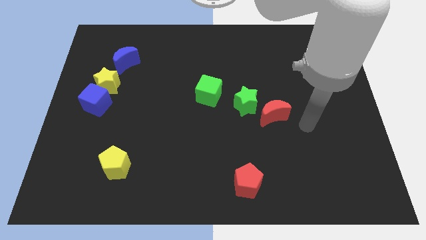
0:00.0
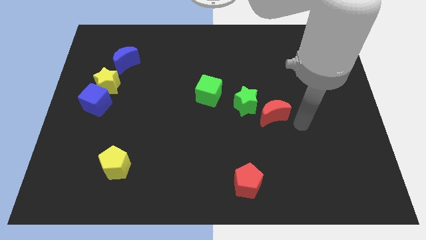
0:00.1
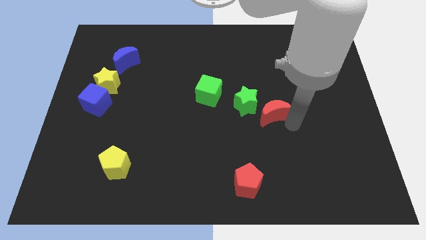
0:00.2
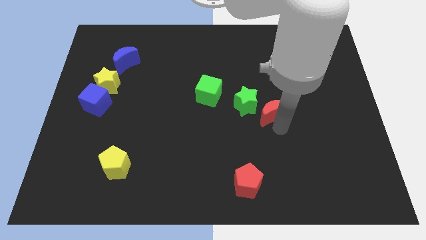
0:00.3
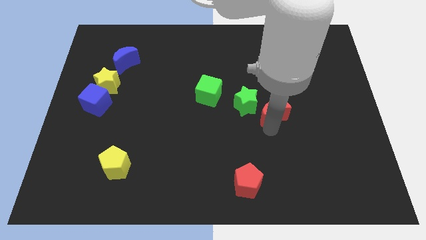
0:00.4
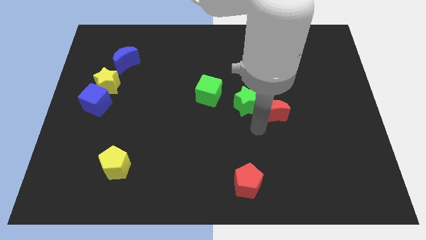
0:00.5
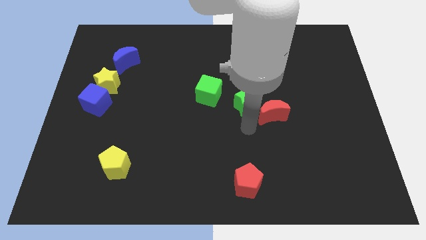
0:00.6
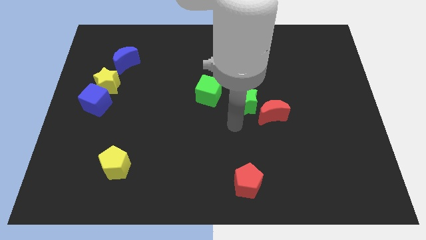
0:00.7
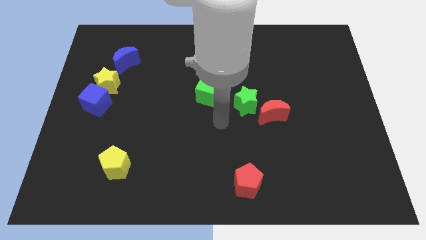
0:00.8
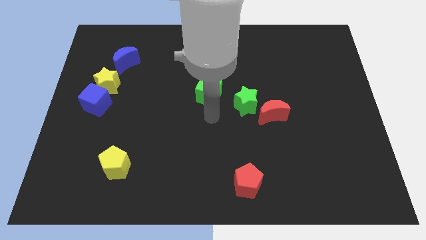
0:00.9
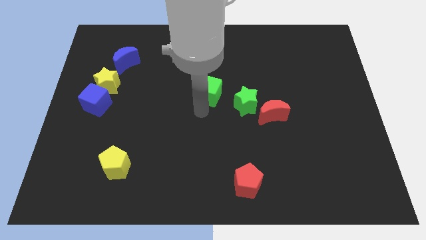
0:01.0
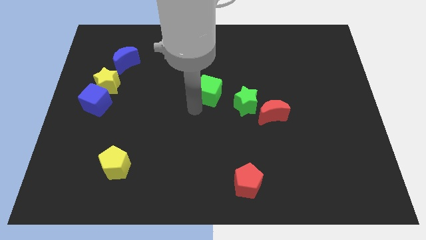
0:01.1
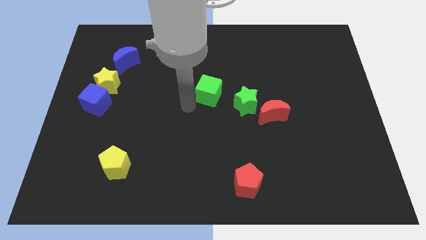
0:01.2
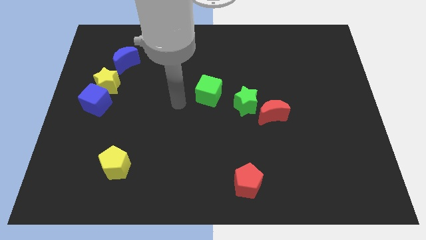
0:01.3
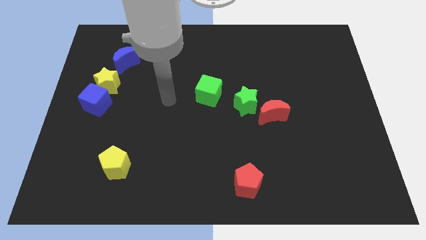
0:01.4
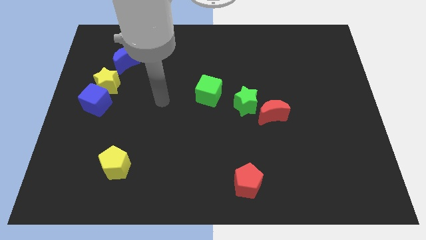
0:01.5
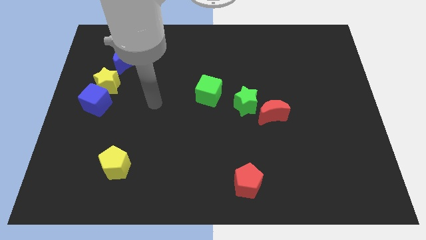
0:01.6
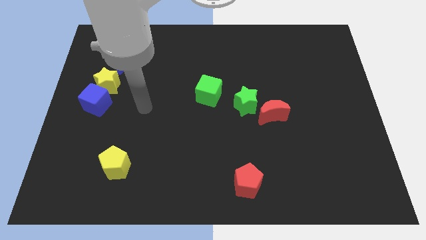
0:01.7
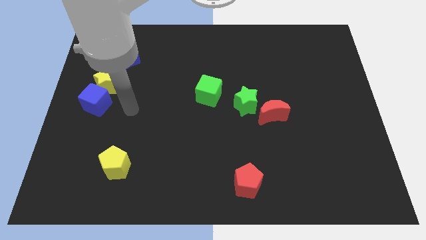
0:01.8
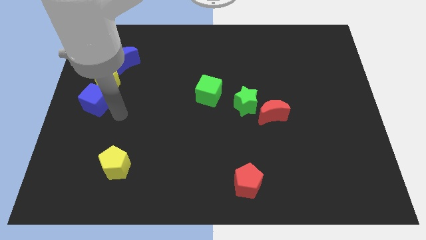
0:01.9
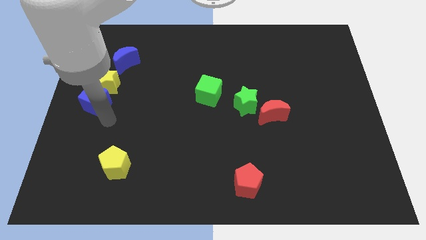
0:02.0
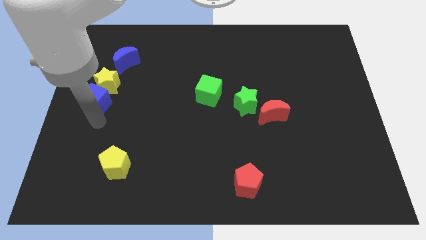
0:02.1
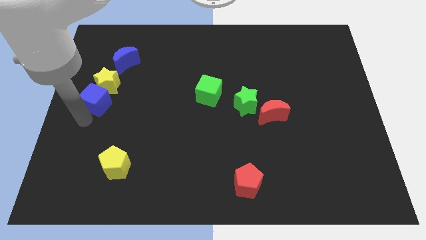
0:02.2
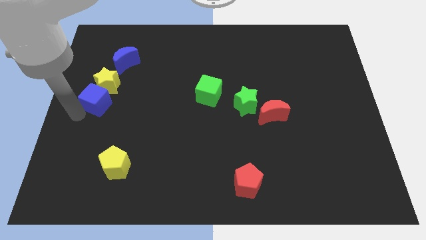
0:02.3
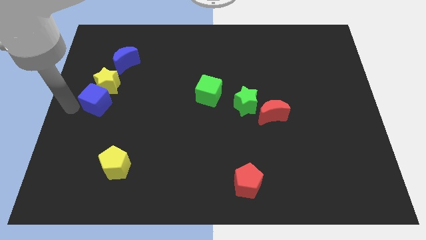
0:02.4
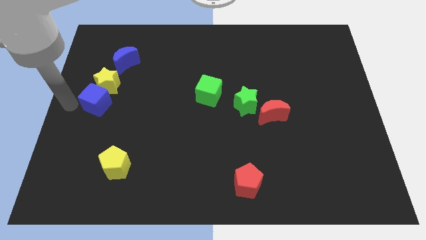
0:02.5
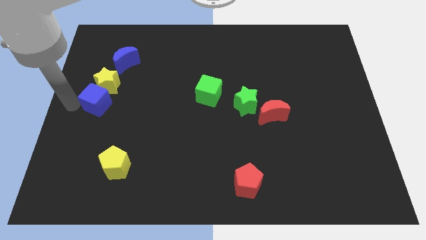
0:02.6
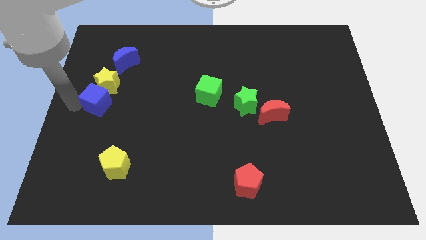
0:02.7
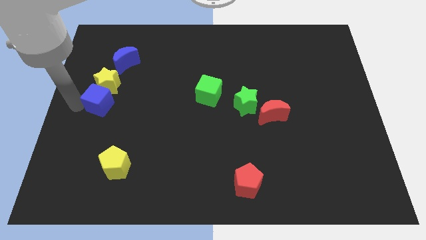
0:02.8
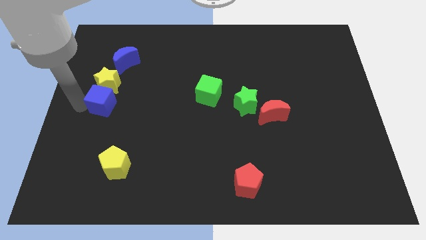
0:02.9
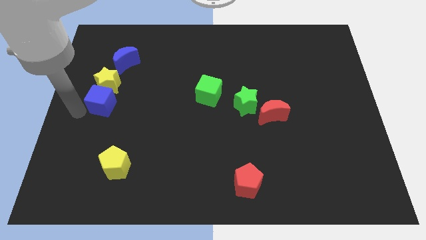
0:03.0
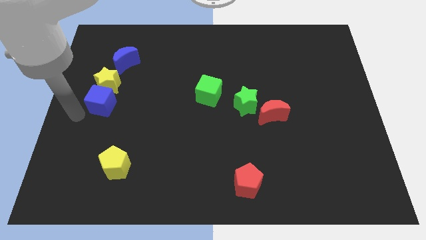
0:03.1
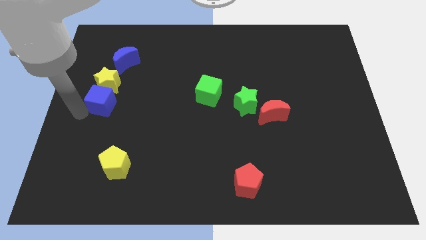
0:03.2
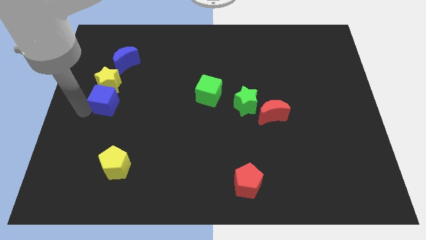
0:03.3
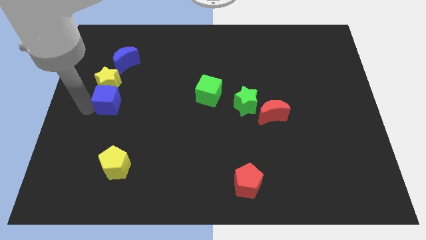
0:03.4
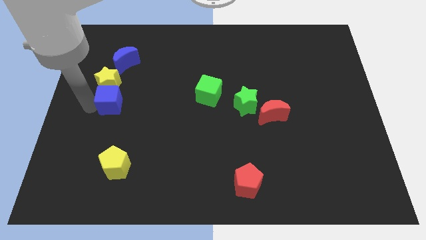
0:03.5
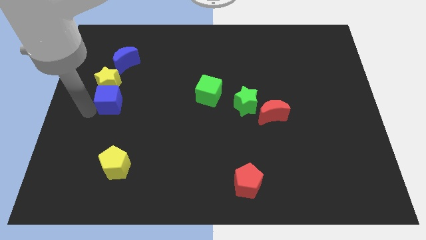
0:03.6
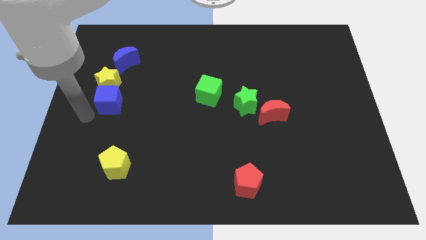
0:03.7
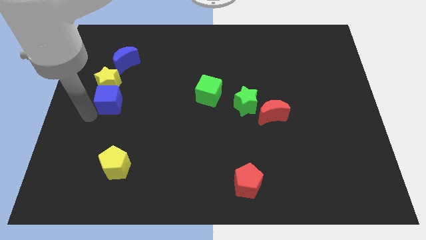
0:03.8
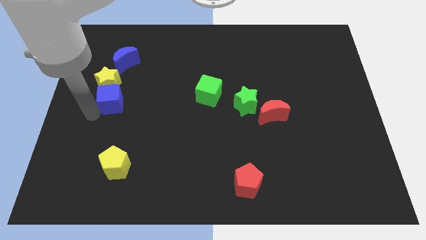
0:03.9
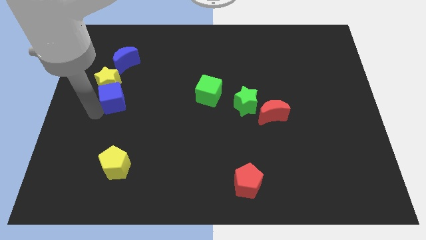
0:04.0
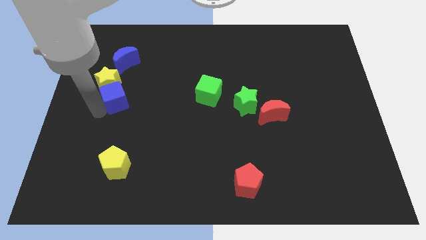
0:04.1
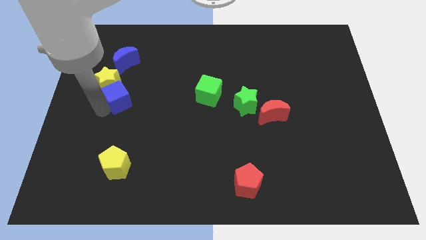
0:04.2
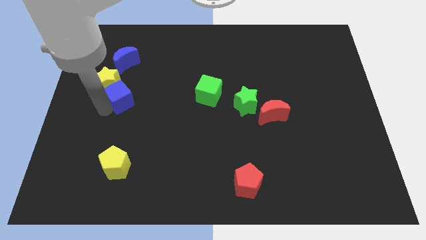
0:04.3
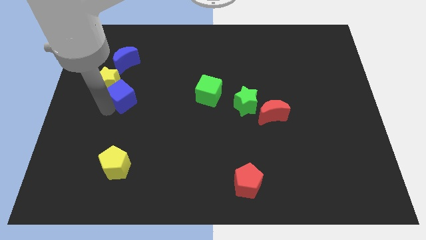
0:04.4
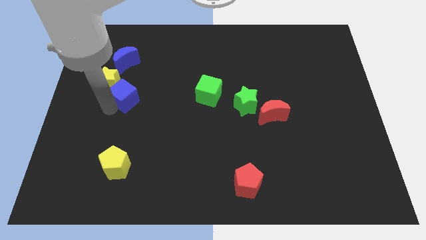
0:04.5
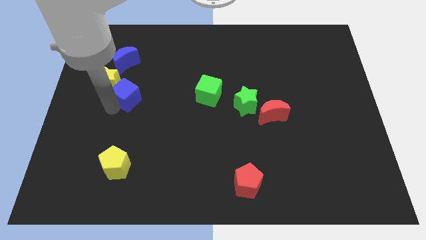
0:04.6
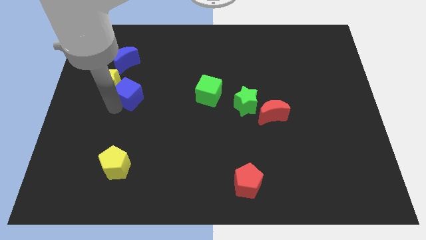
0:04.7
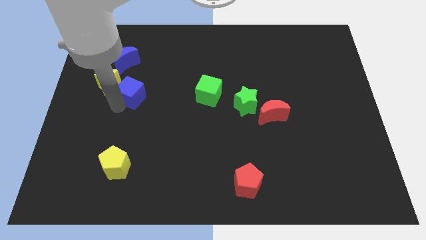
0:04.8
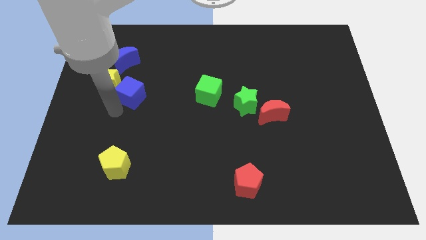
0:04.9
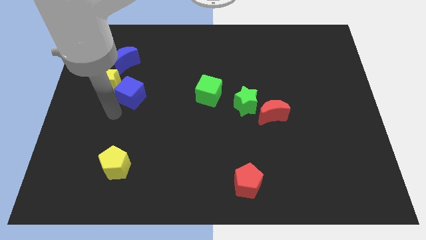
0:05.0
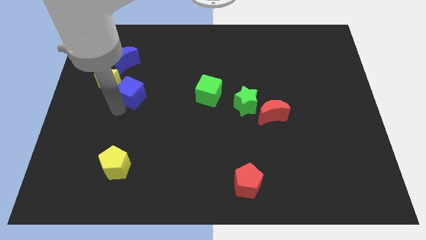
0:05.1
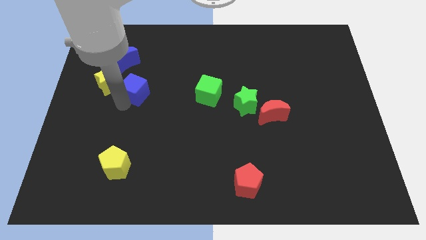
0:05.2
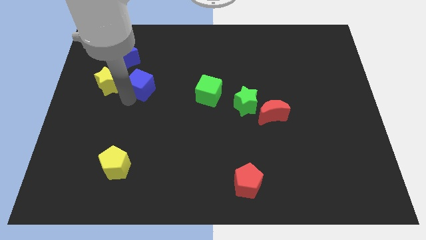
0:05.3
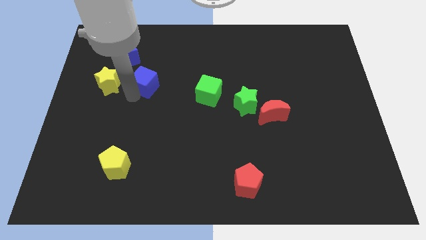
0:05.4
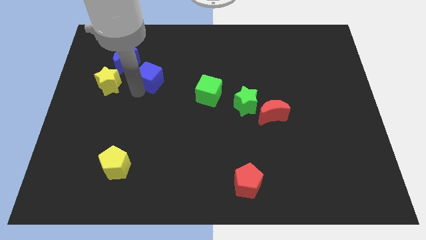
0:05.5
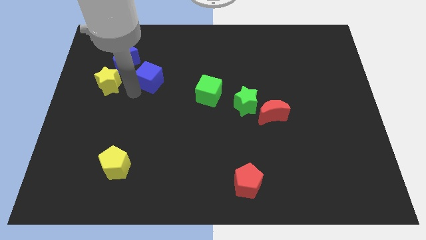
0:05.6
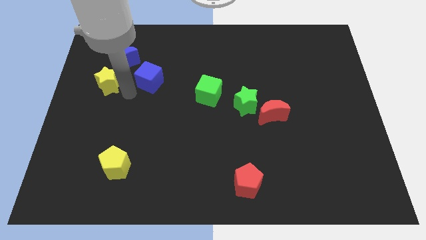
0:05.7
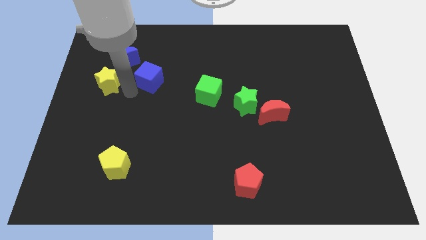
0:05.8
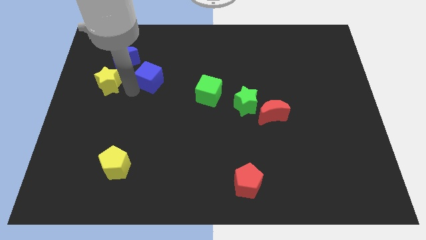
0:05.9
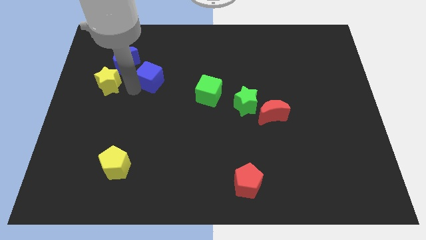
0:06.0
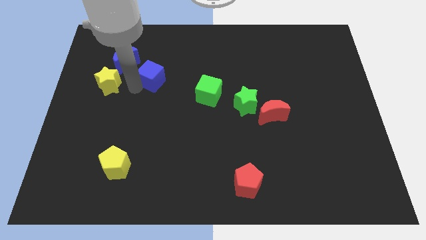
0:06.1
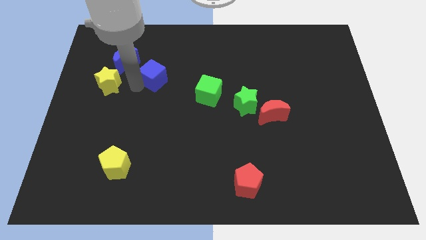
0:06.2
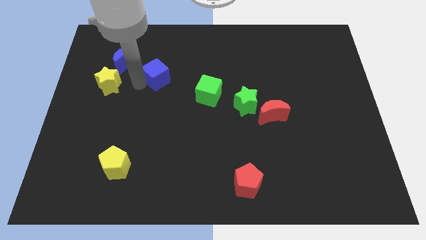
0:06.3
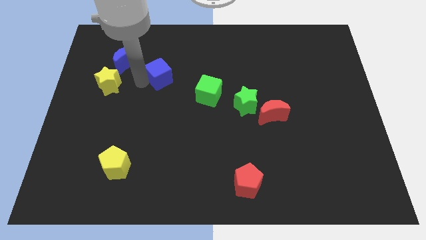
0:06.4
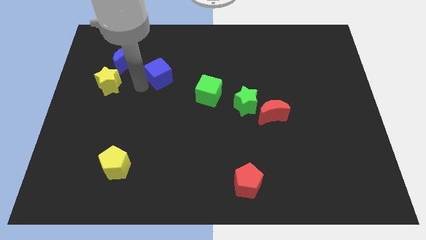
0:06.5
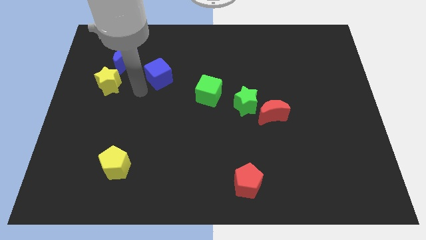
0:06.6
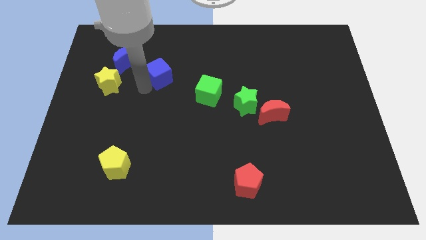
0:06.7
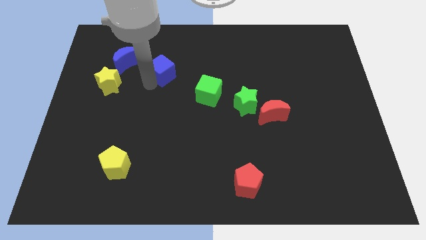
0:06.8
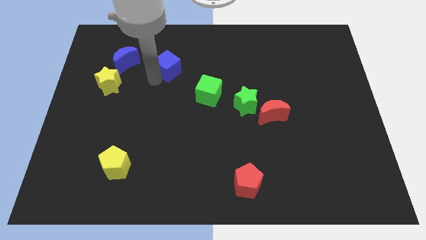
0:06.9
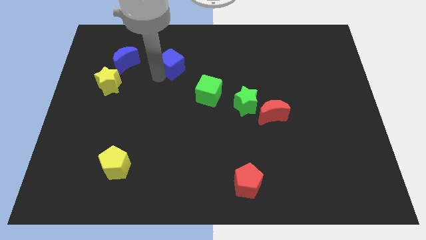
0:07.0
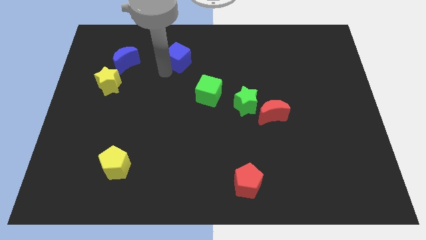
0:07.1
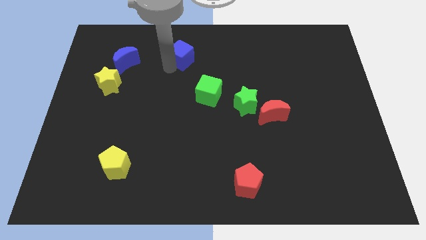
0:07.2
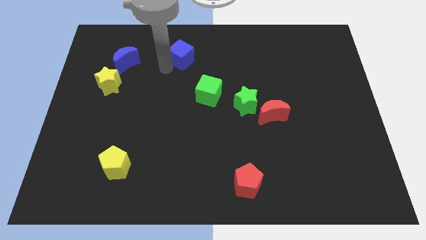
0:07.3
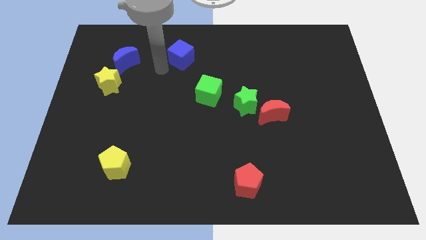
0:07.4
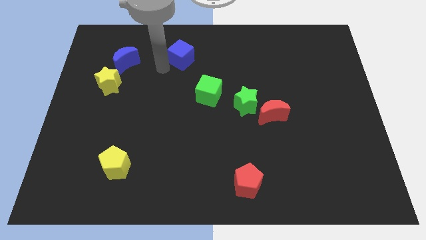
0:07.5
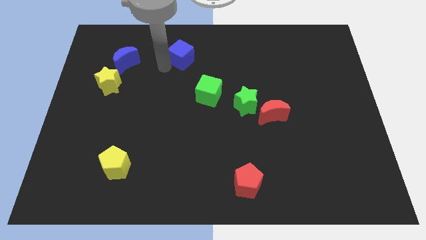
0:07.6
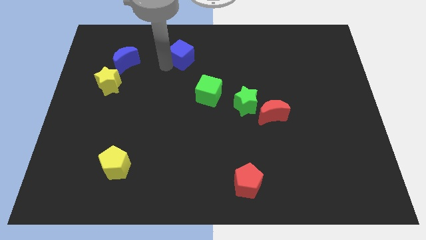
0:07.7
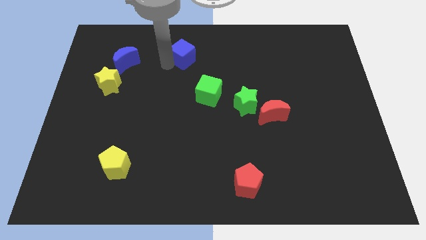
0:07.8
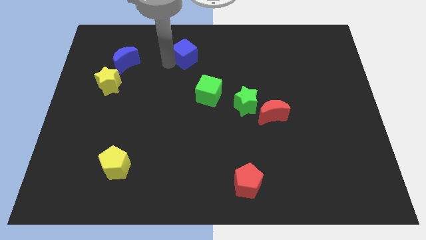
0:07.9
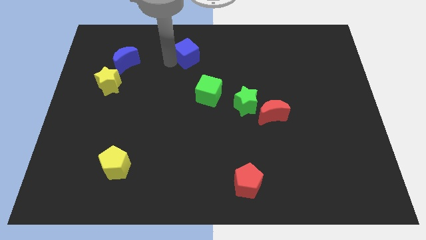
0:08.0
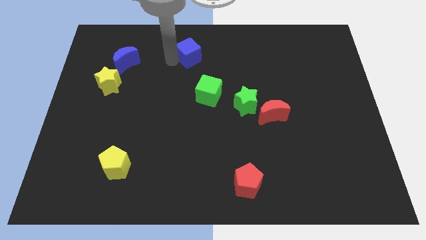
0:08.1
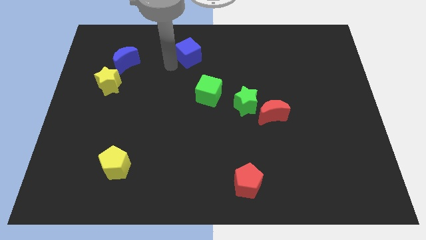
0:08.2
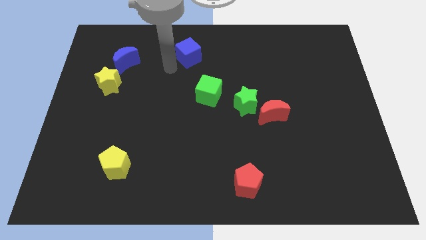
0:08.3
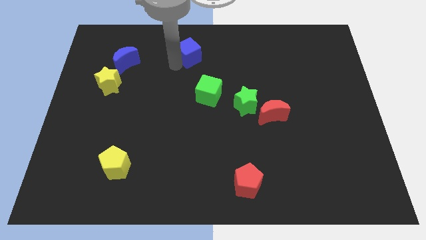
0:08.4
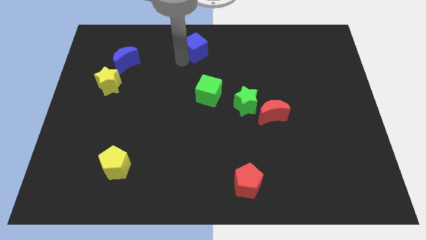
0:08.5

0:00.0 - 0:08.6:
put the blue cube to the top
